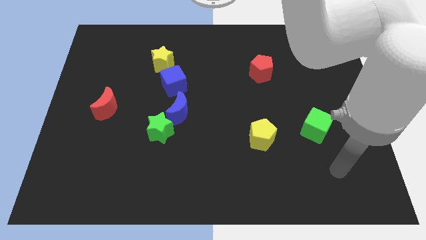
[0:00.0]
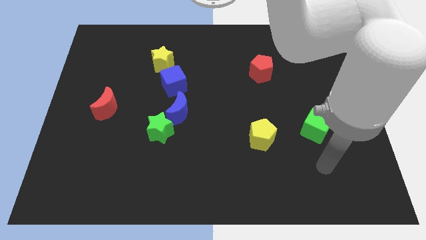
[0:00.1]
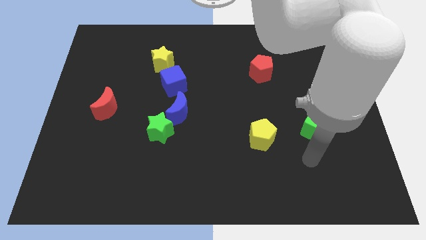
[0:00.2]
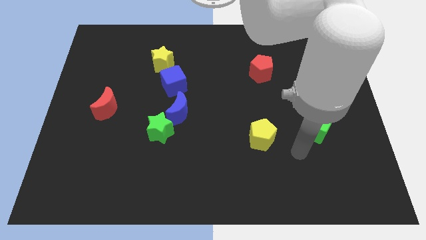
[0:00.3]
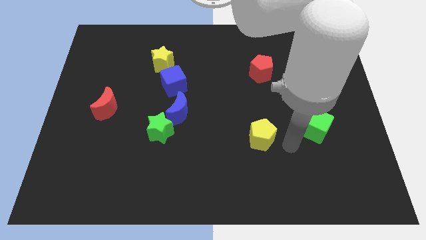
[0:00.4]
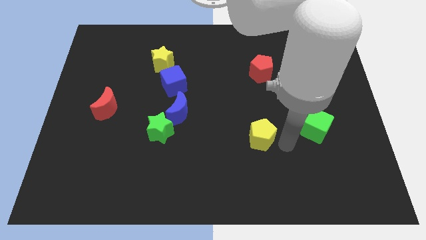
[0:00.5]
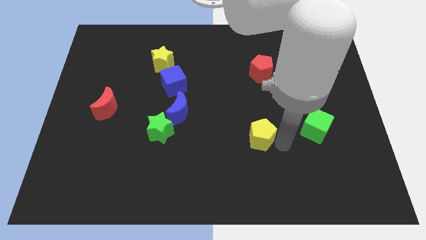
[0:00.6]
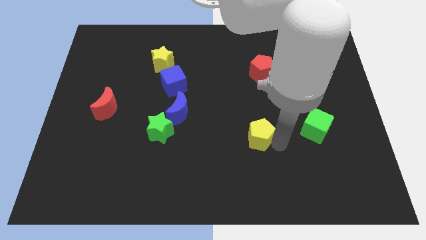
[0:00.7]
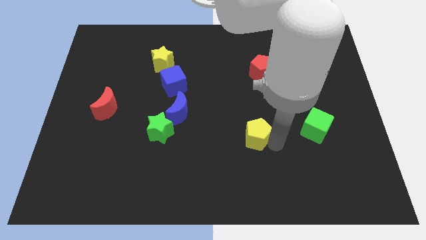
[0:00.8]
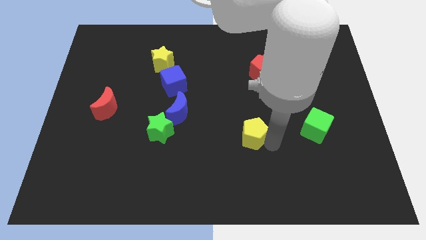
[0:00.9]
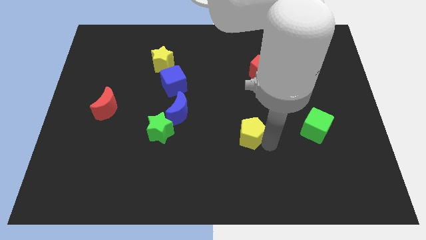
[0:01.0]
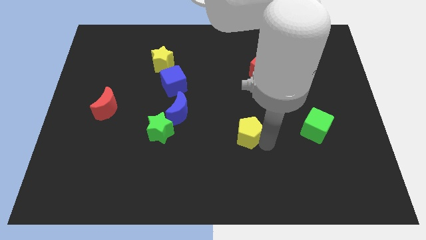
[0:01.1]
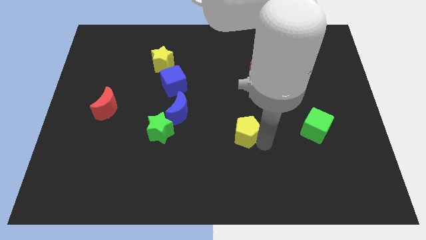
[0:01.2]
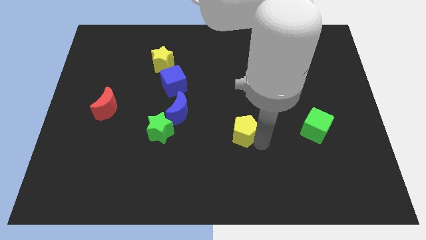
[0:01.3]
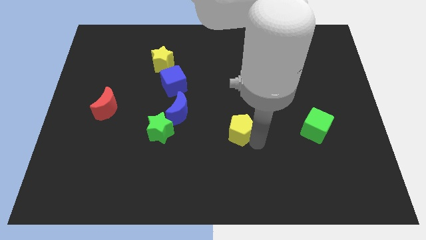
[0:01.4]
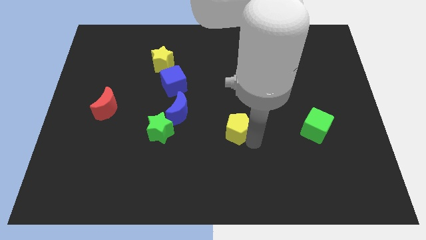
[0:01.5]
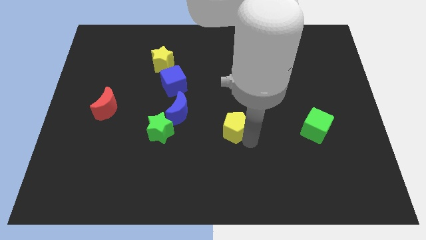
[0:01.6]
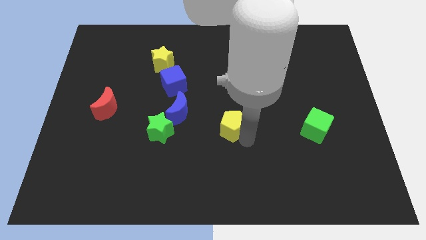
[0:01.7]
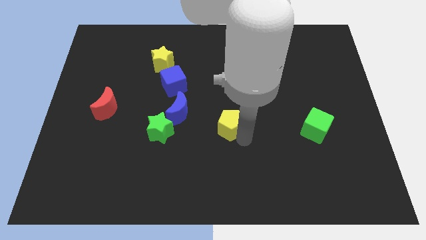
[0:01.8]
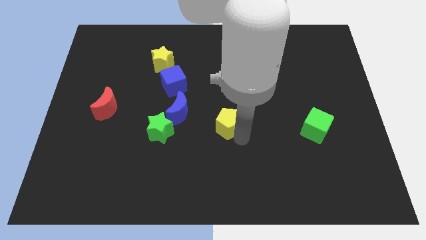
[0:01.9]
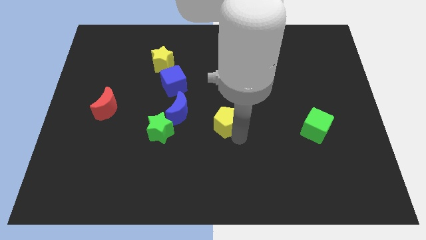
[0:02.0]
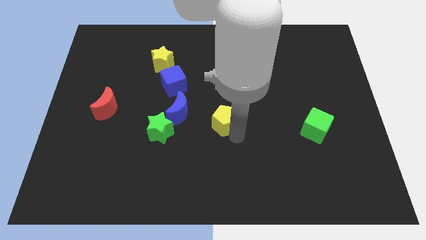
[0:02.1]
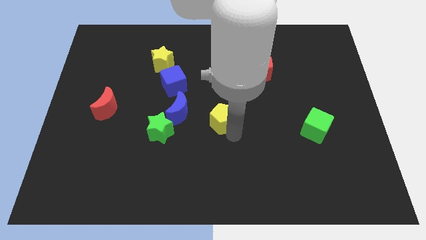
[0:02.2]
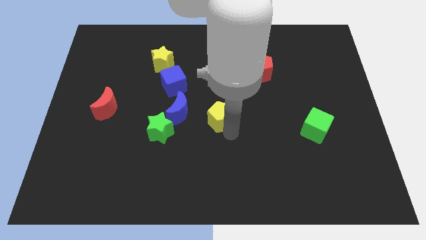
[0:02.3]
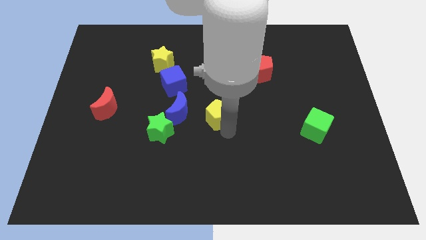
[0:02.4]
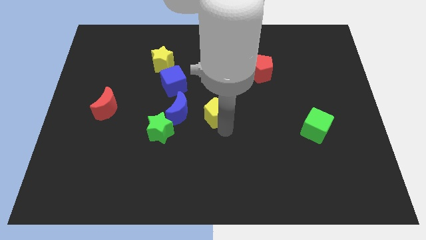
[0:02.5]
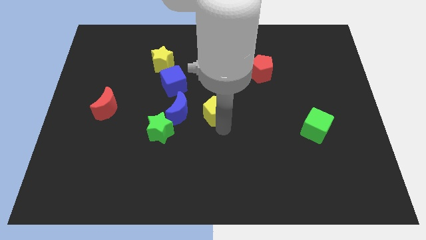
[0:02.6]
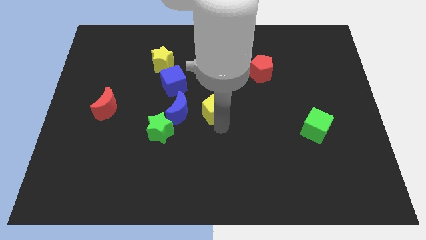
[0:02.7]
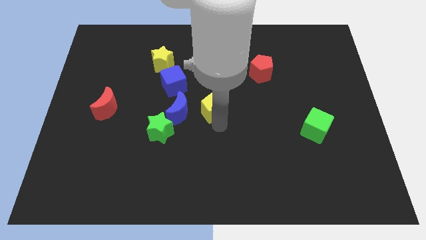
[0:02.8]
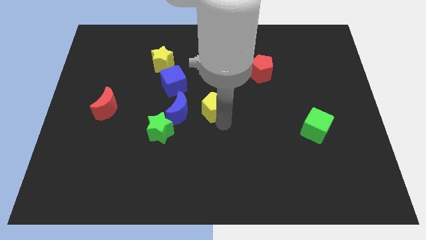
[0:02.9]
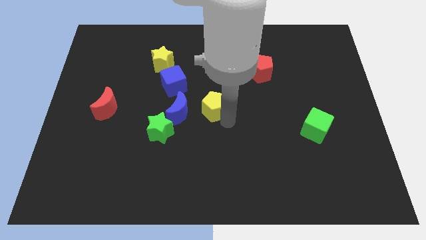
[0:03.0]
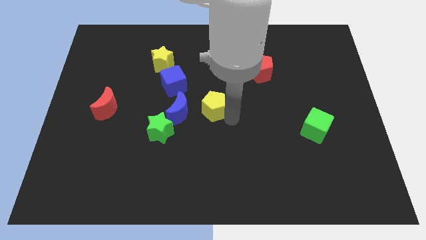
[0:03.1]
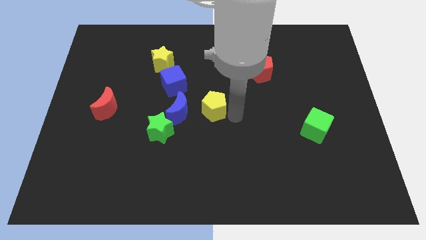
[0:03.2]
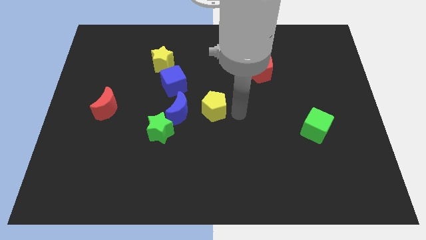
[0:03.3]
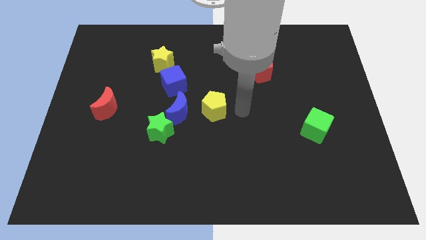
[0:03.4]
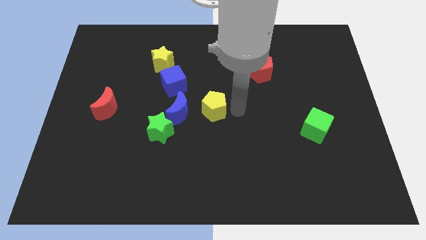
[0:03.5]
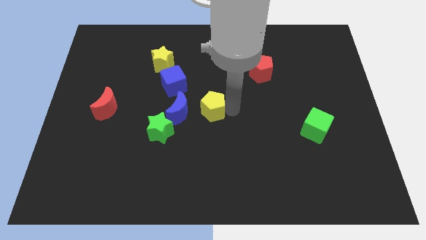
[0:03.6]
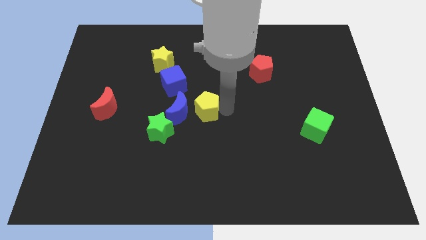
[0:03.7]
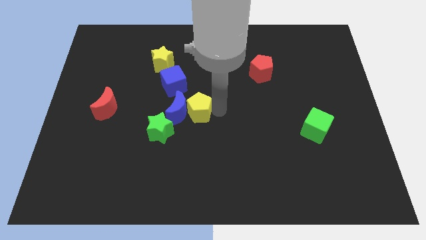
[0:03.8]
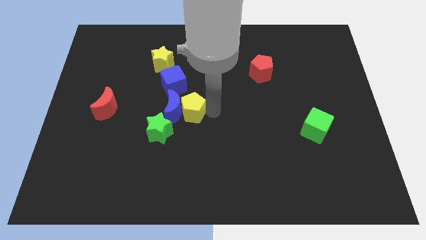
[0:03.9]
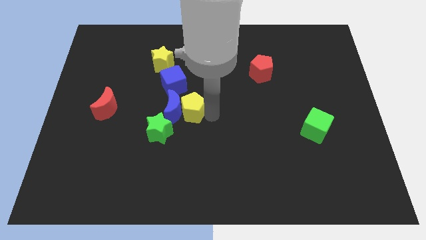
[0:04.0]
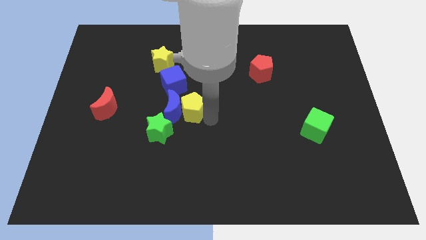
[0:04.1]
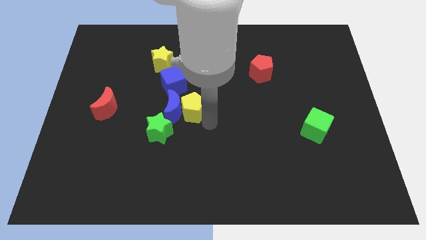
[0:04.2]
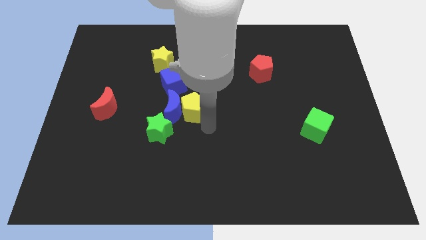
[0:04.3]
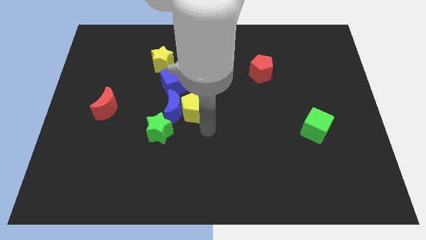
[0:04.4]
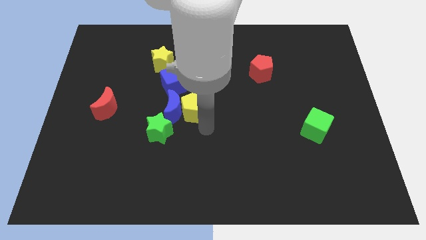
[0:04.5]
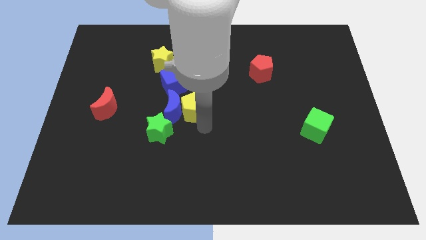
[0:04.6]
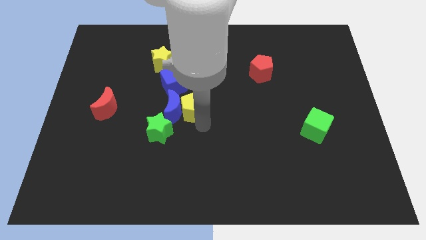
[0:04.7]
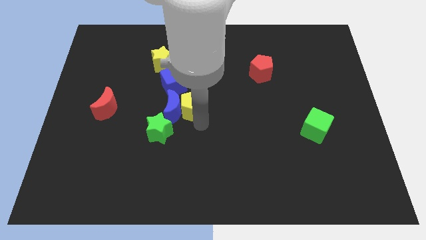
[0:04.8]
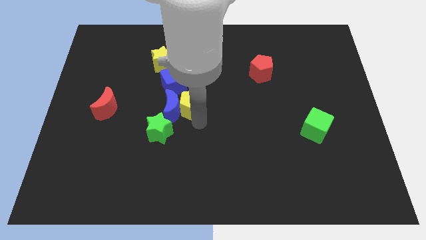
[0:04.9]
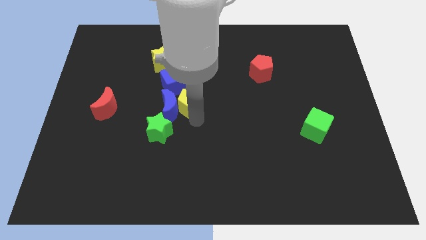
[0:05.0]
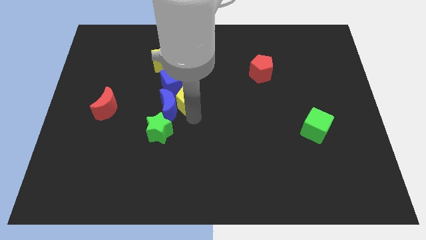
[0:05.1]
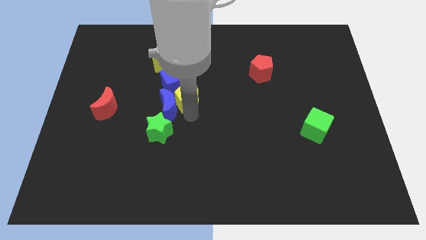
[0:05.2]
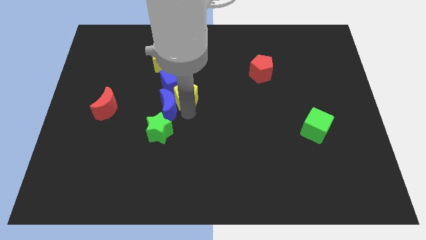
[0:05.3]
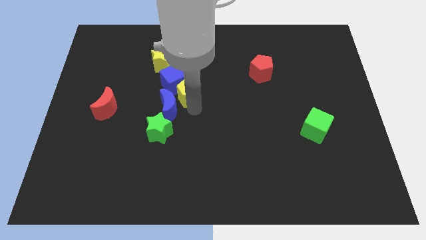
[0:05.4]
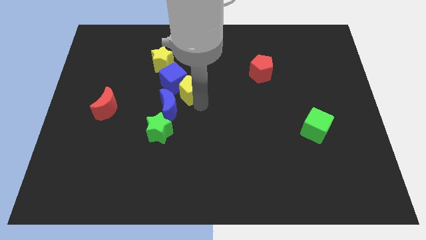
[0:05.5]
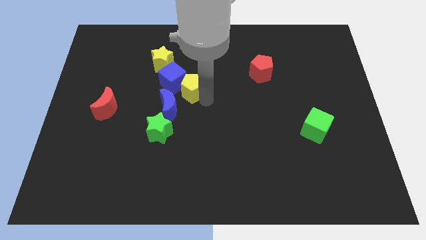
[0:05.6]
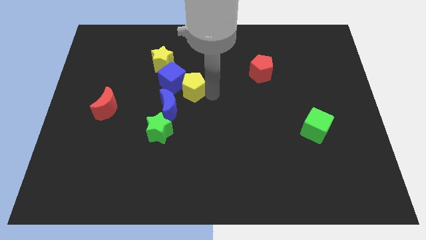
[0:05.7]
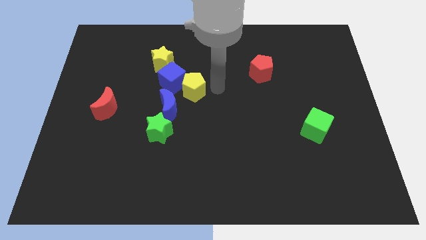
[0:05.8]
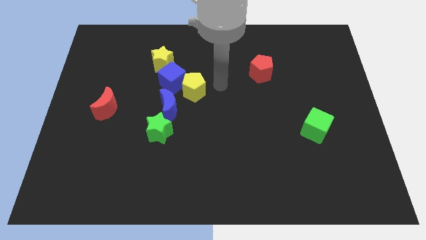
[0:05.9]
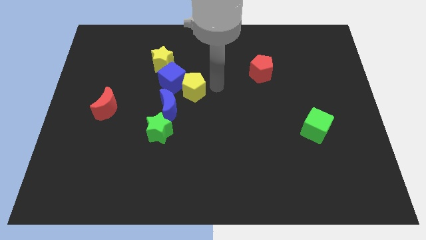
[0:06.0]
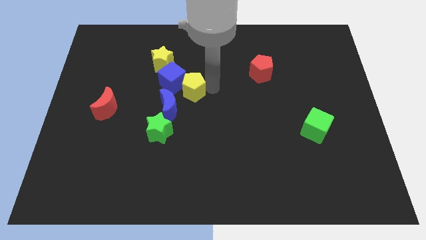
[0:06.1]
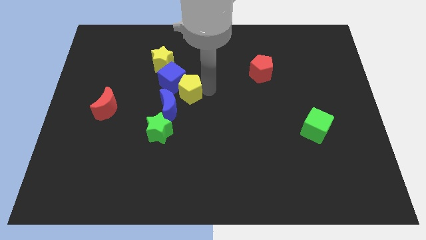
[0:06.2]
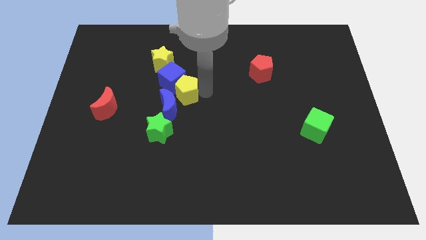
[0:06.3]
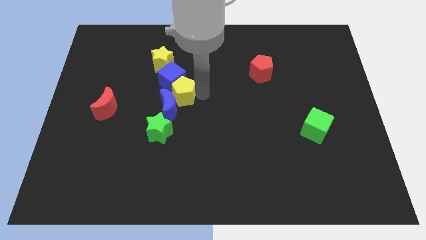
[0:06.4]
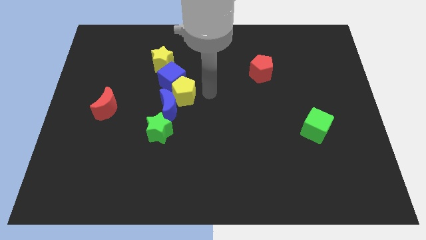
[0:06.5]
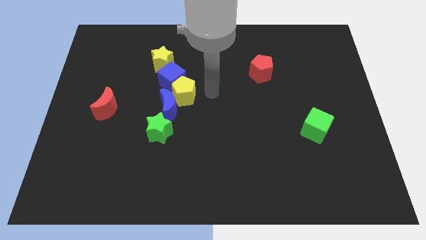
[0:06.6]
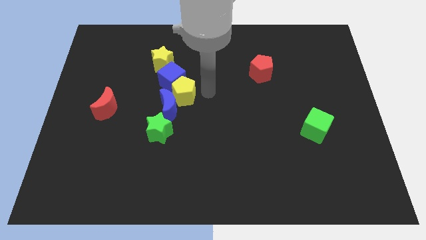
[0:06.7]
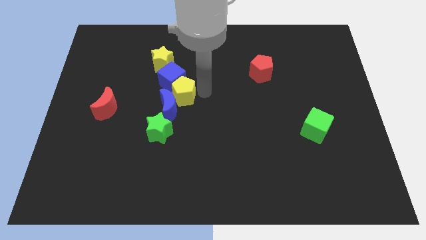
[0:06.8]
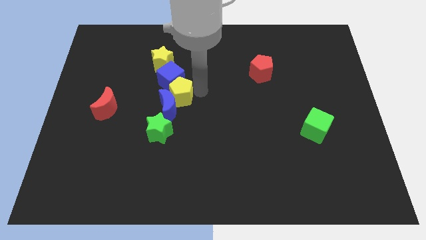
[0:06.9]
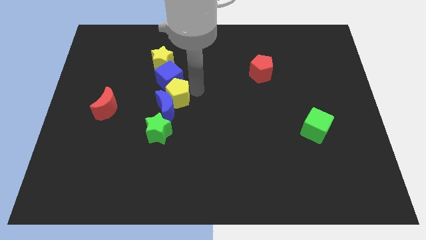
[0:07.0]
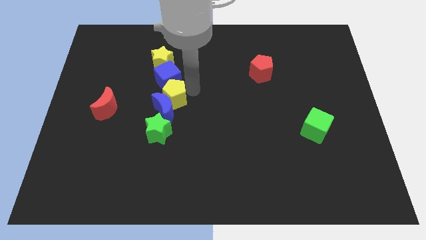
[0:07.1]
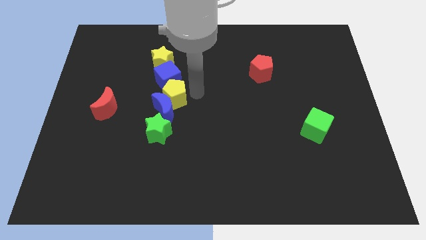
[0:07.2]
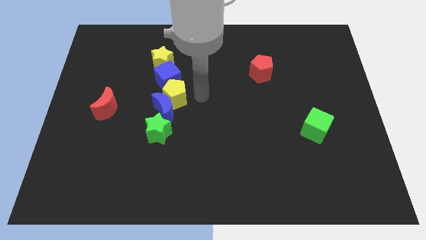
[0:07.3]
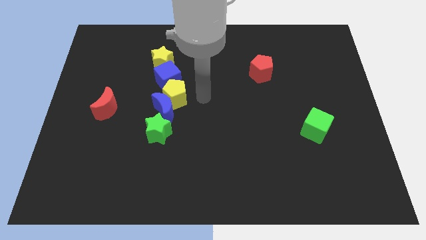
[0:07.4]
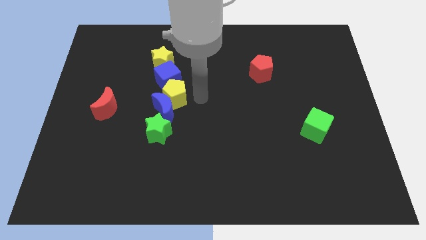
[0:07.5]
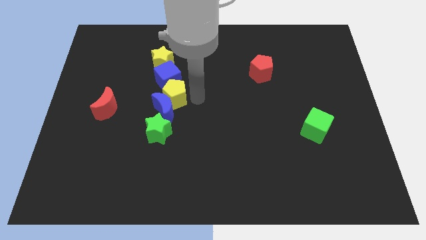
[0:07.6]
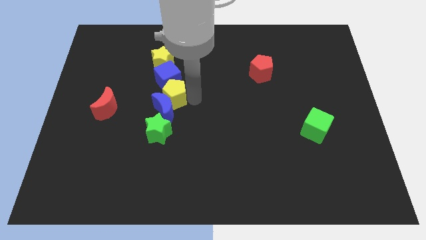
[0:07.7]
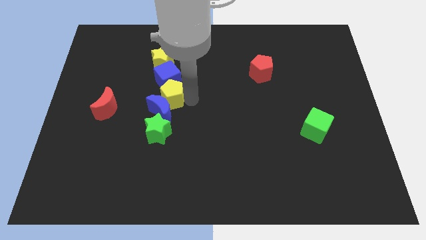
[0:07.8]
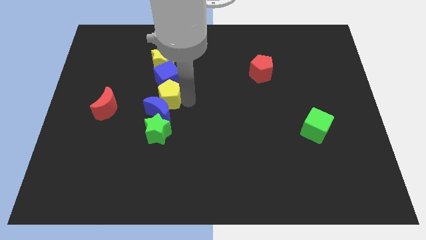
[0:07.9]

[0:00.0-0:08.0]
push the yellow pentagon to the bottom left side of the blue cube

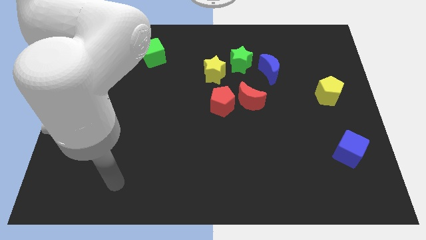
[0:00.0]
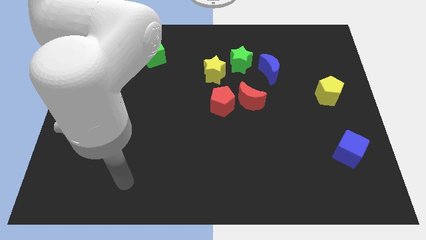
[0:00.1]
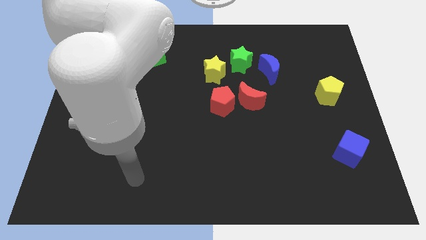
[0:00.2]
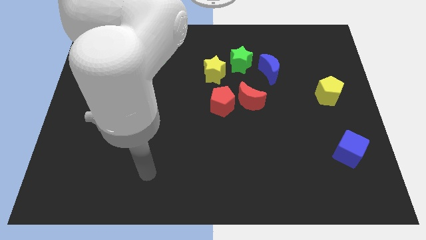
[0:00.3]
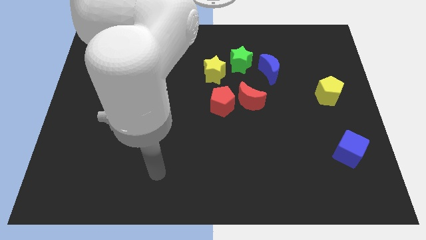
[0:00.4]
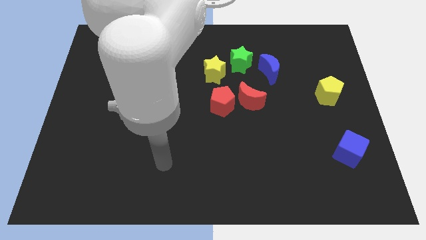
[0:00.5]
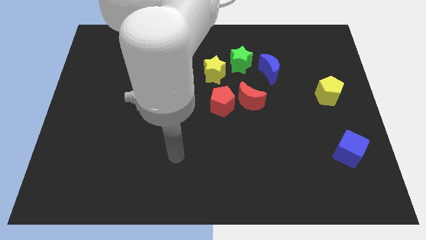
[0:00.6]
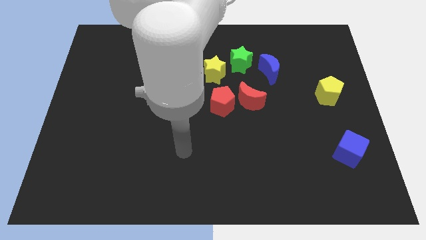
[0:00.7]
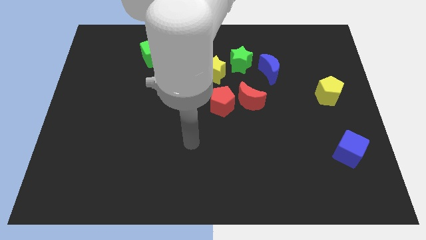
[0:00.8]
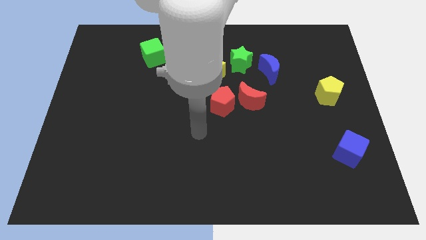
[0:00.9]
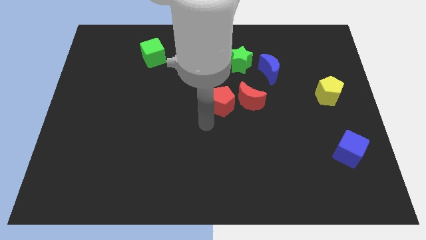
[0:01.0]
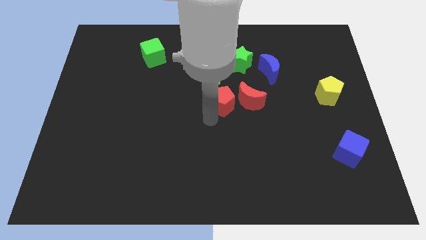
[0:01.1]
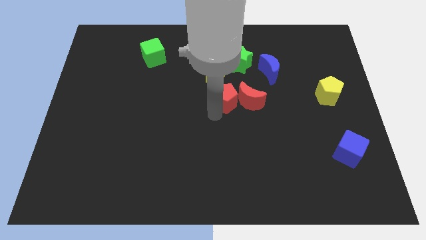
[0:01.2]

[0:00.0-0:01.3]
move the red pentagon to the bottom right side of the yellow star
